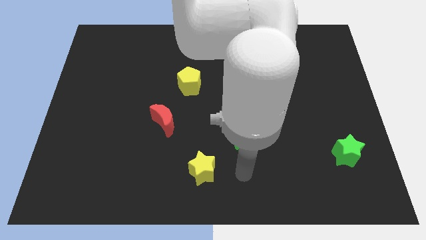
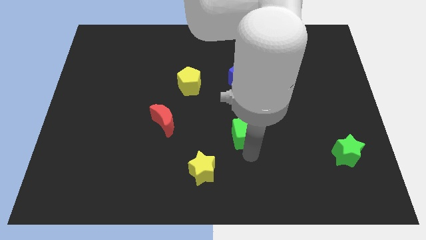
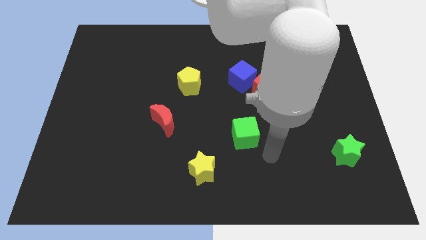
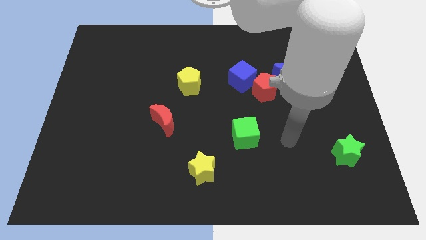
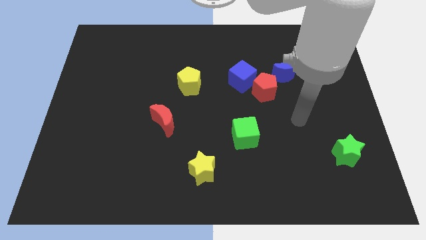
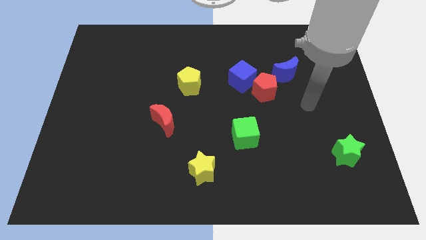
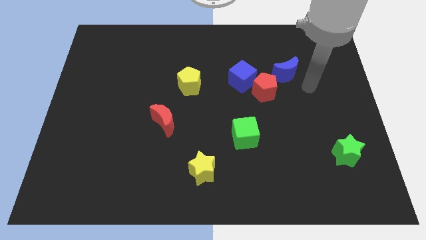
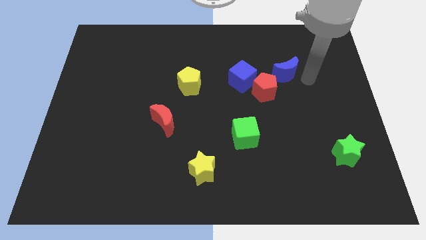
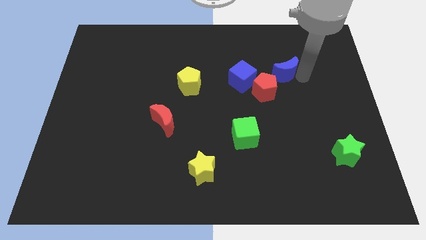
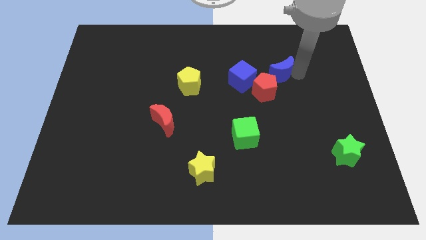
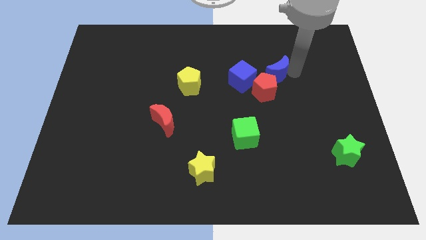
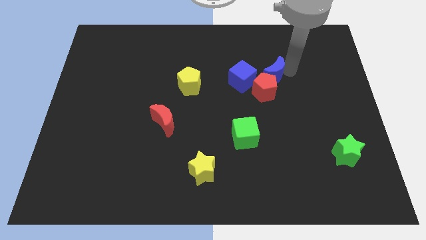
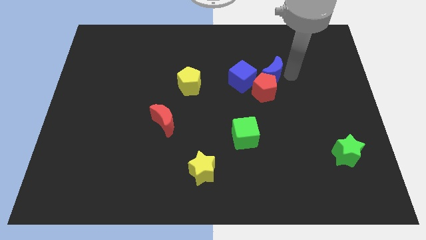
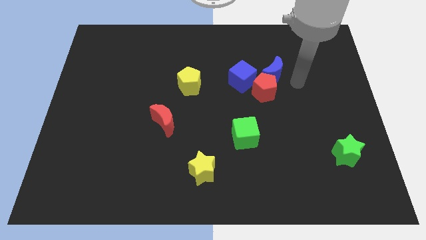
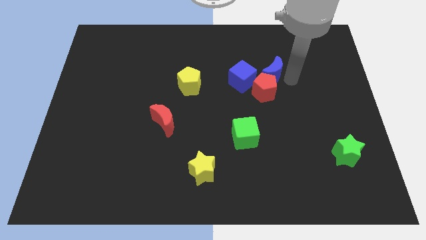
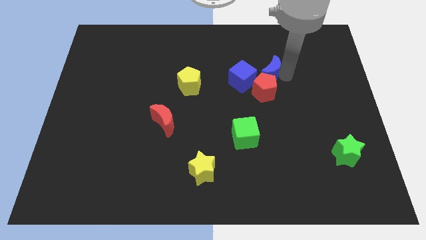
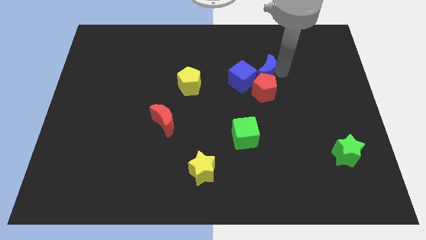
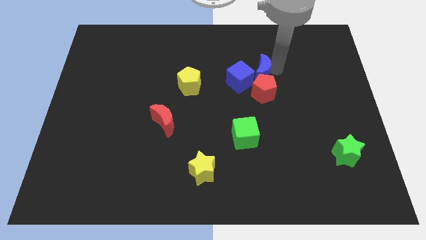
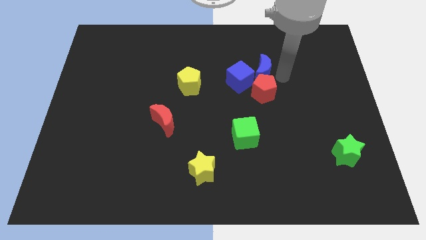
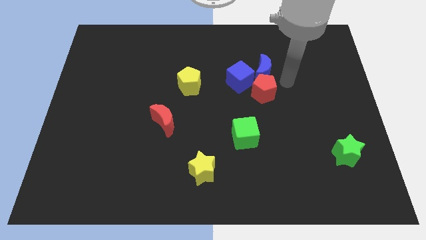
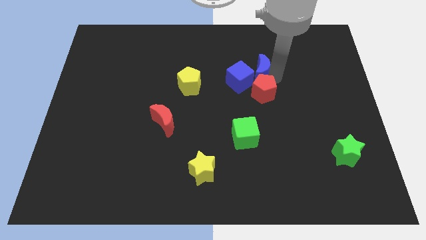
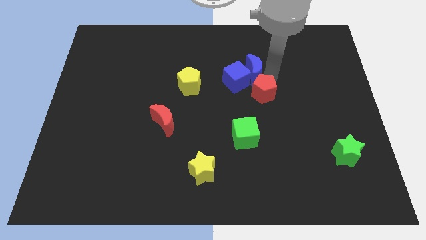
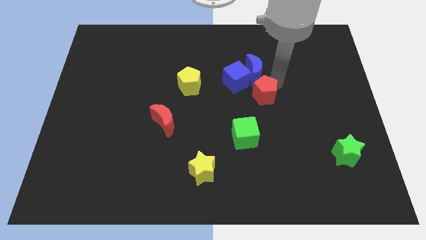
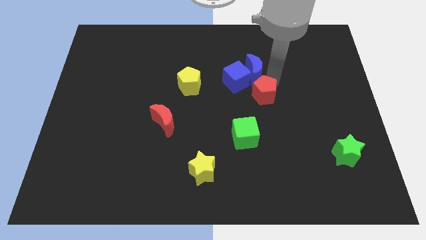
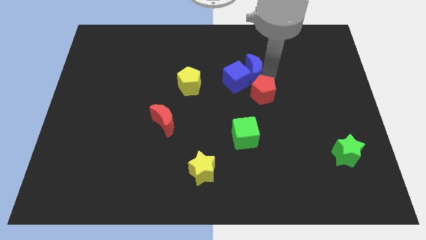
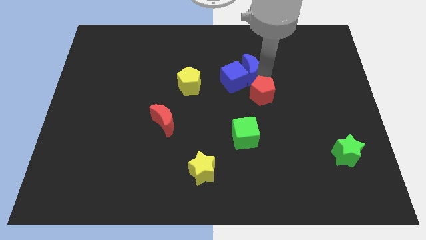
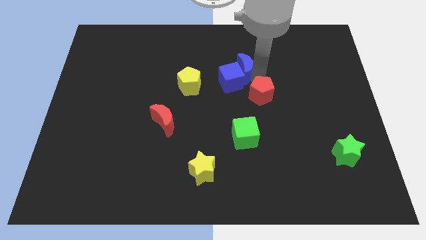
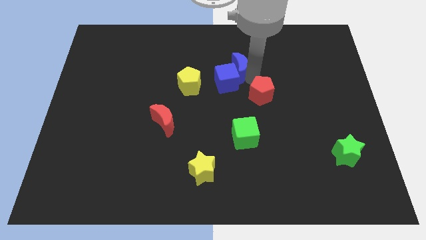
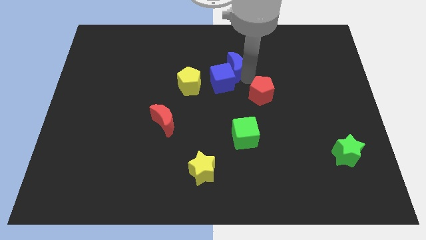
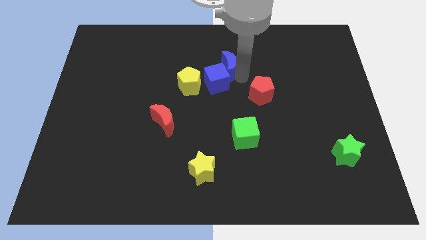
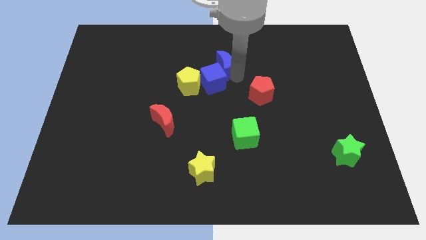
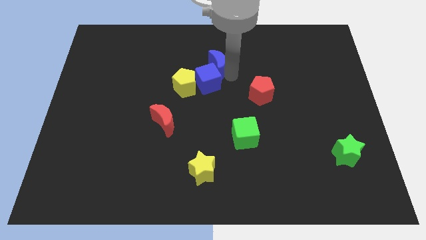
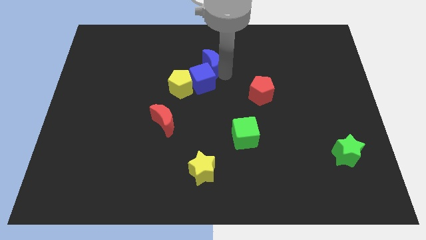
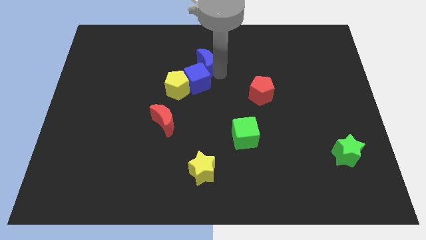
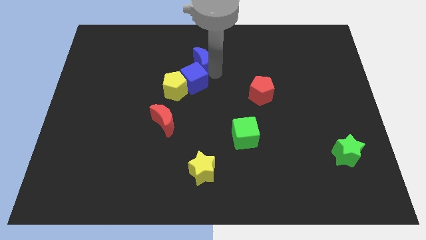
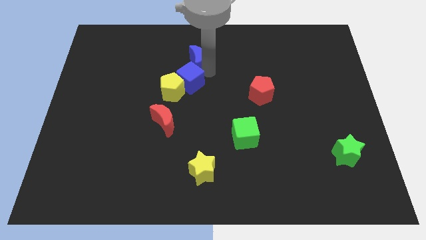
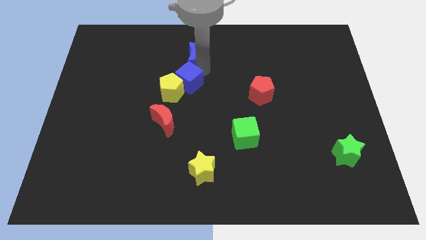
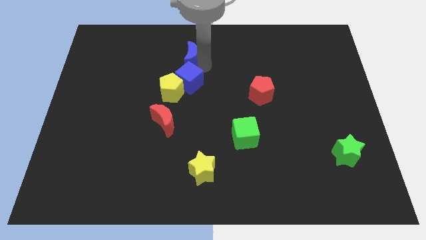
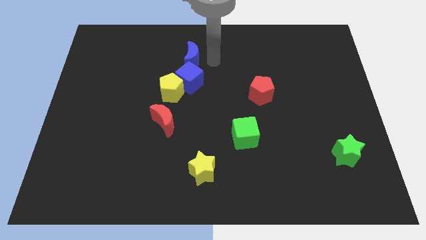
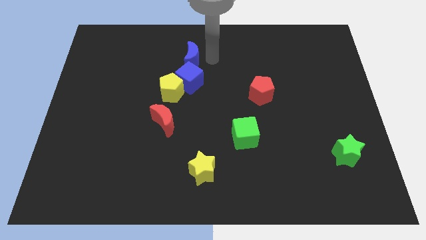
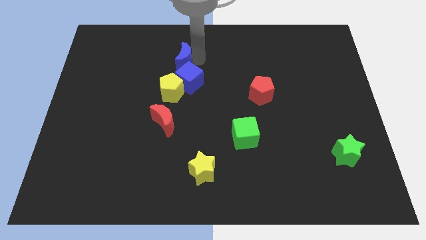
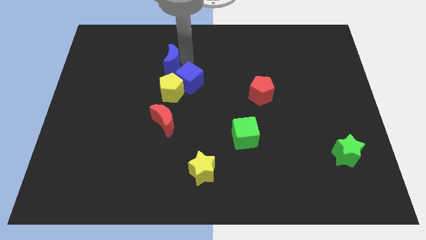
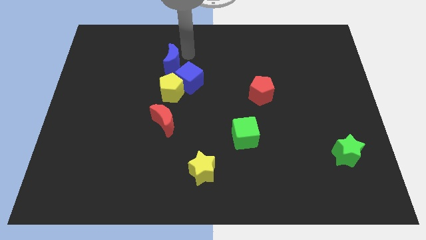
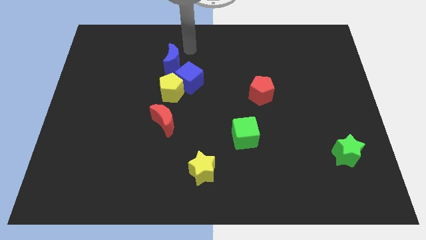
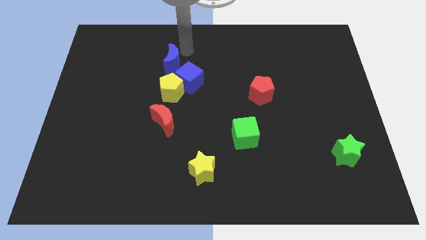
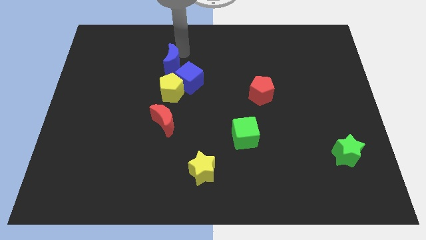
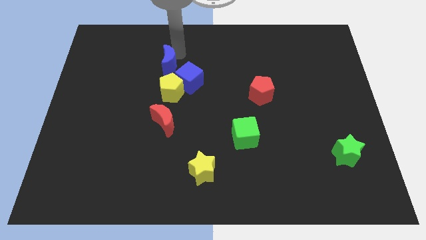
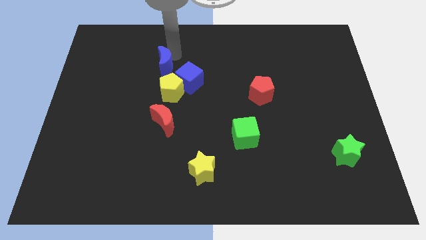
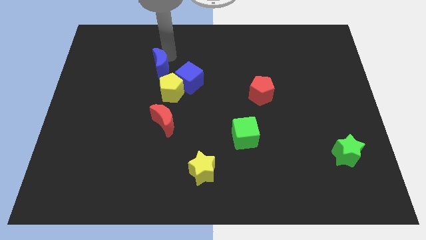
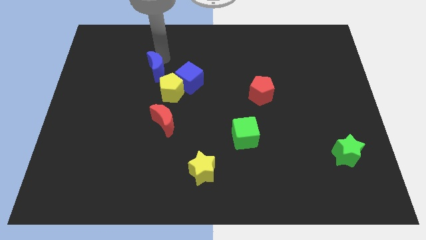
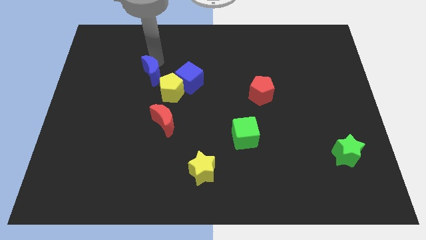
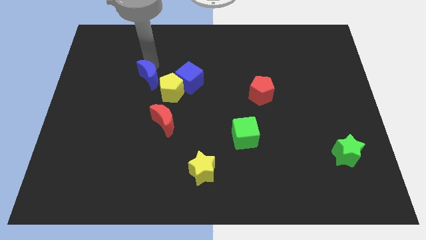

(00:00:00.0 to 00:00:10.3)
push the blue moon left of the yellow pentagon

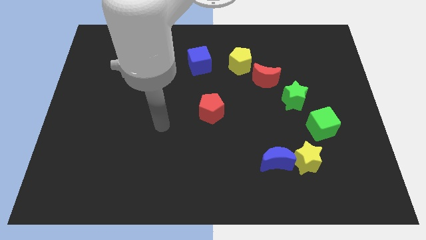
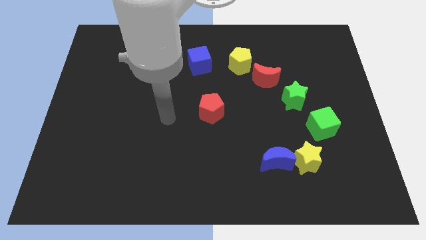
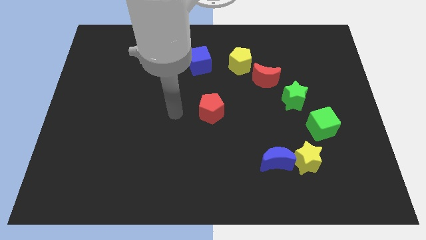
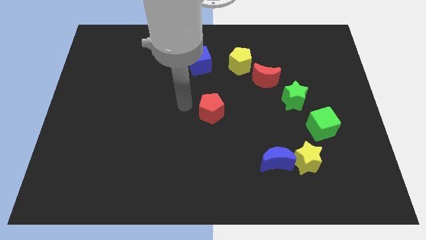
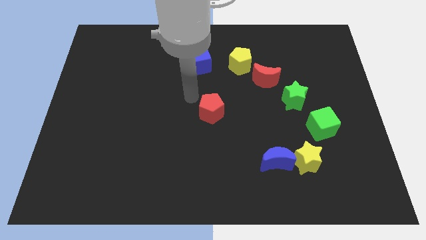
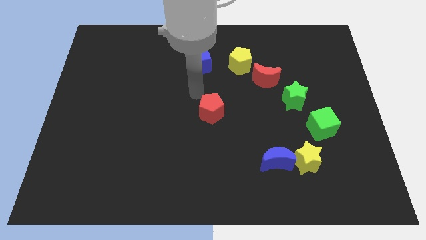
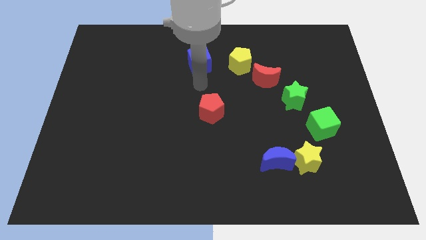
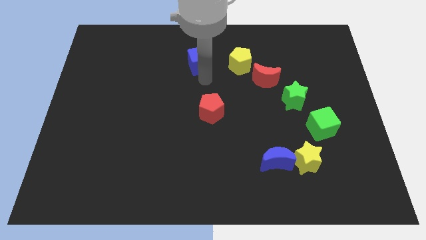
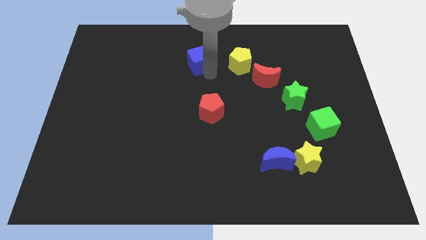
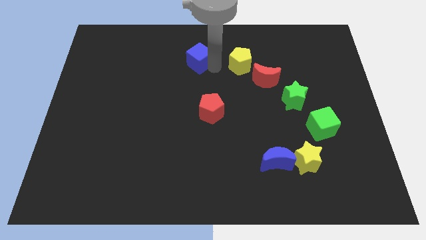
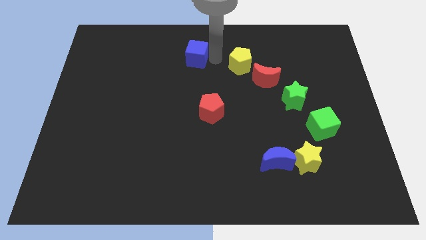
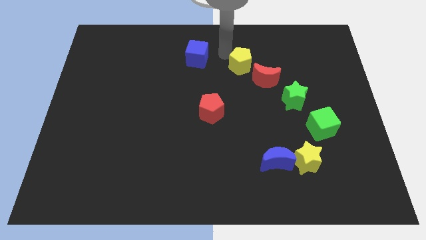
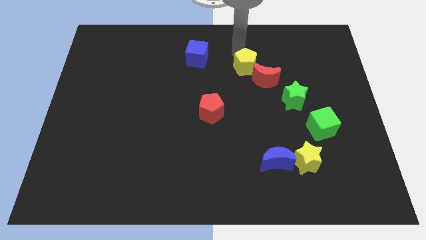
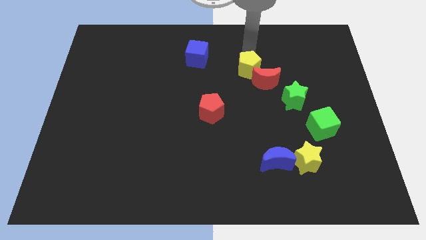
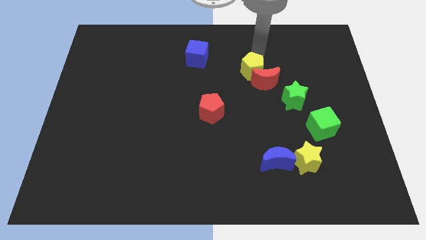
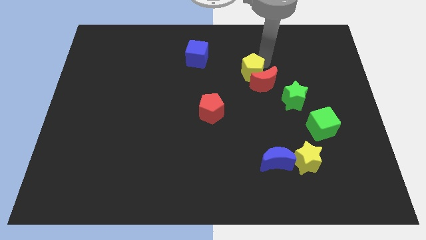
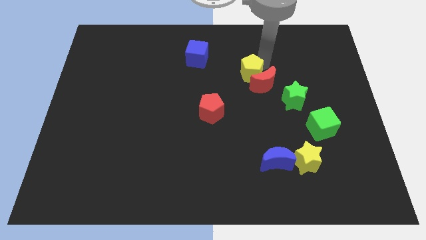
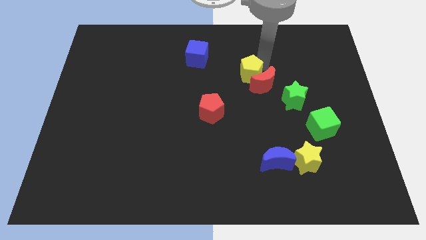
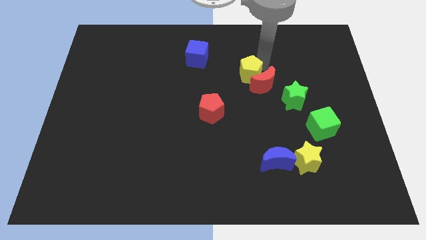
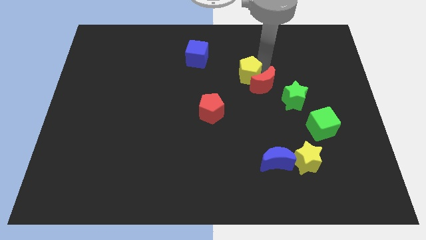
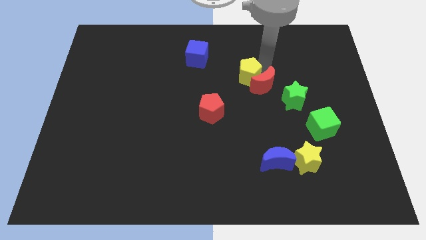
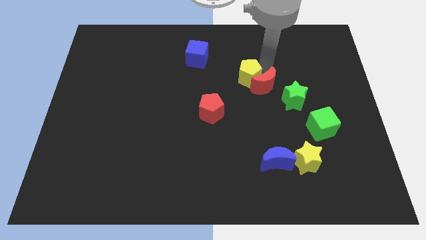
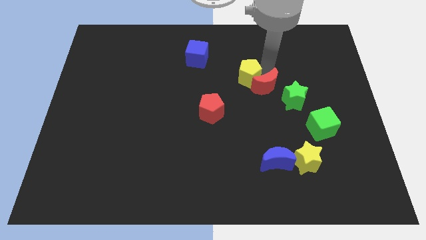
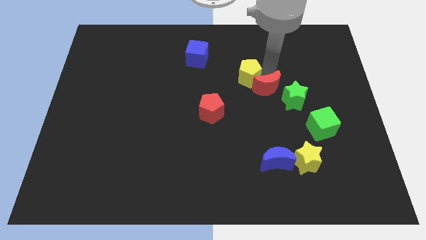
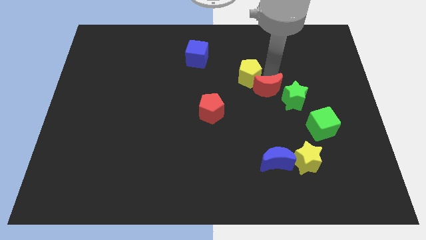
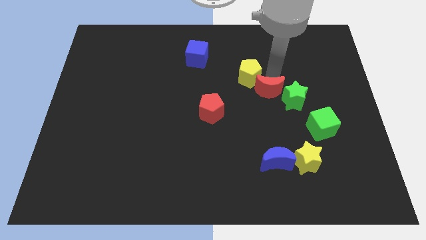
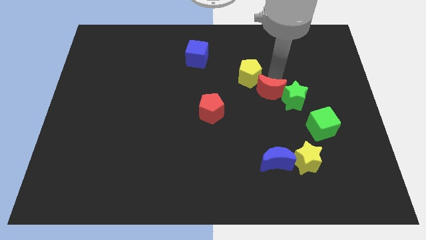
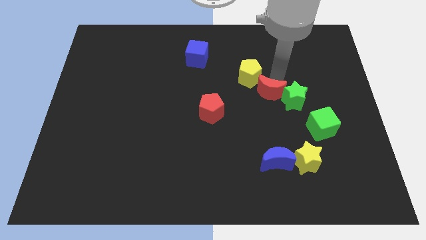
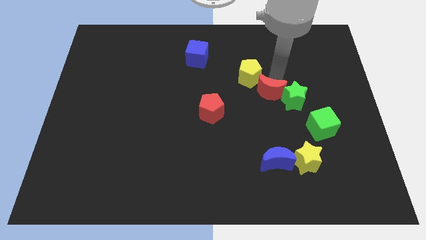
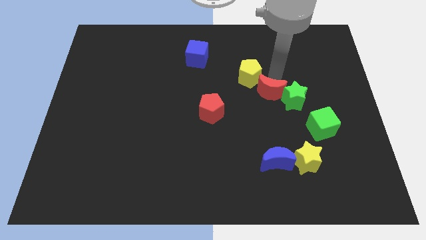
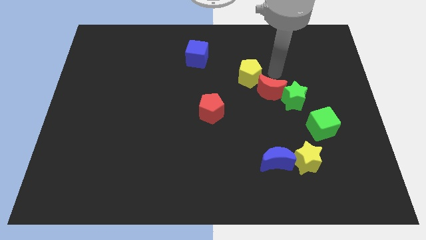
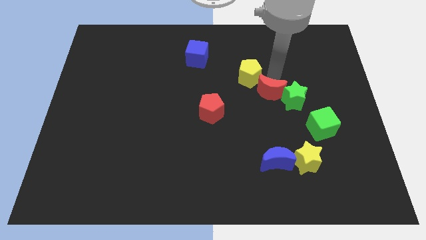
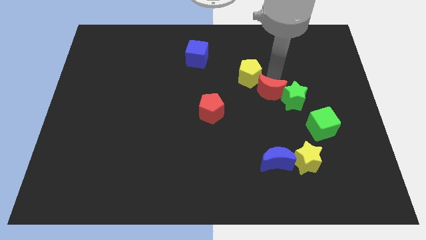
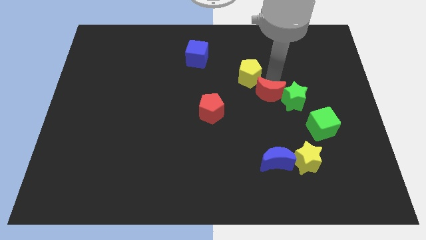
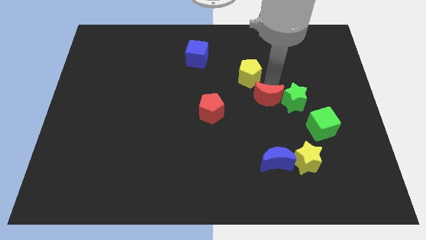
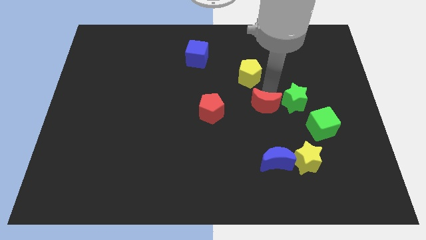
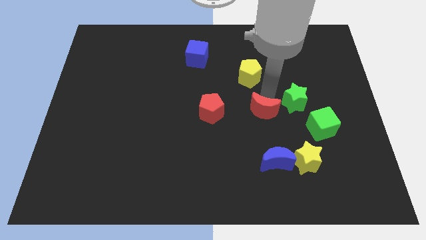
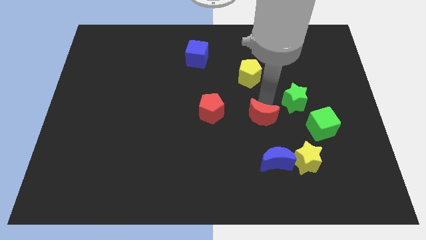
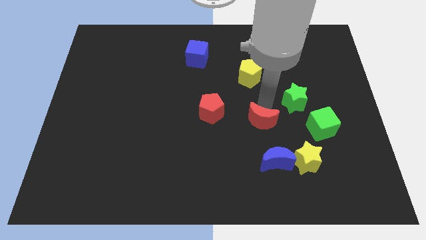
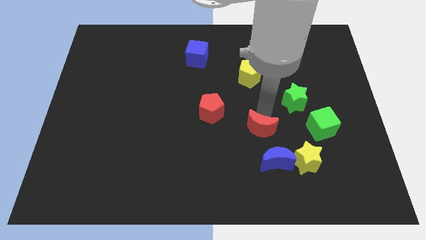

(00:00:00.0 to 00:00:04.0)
put the red moon to the top left side of the blue moon
